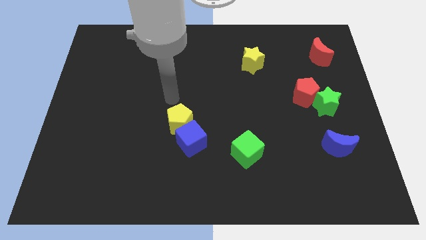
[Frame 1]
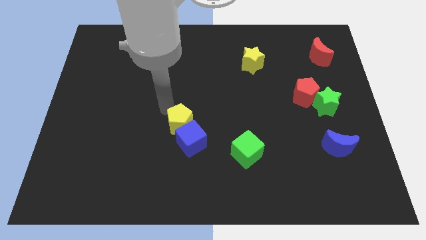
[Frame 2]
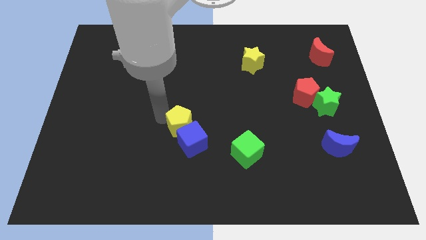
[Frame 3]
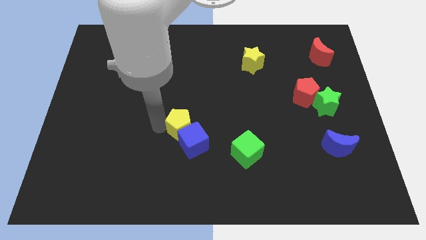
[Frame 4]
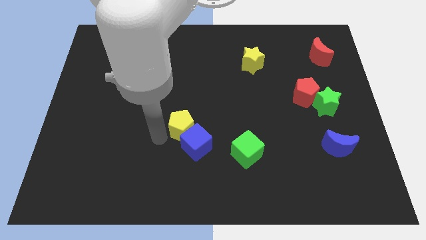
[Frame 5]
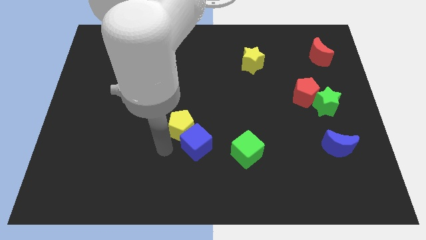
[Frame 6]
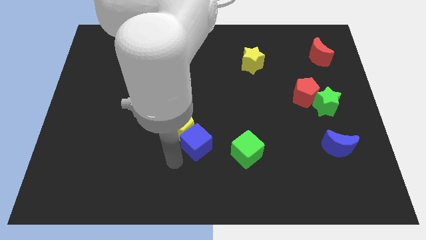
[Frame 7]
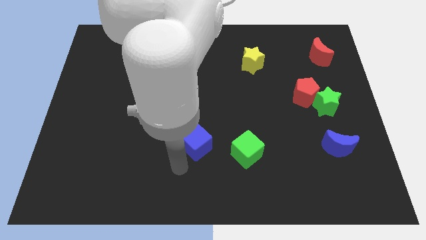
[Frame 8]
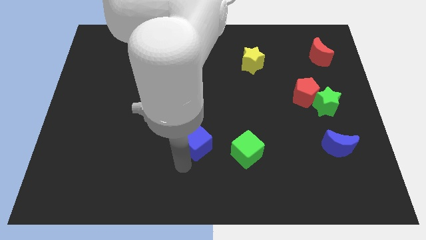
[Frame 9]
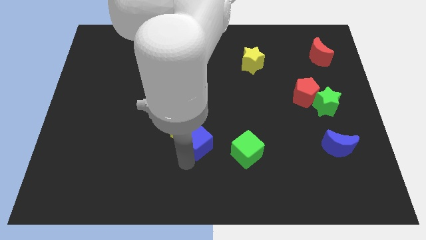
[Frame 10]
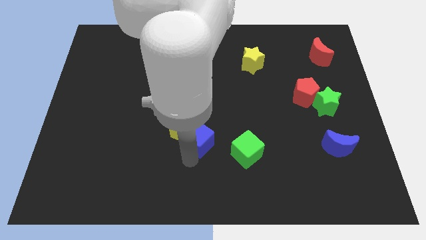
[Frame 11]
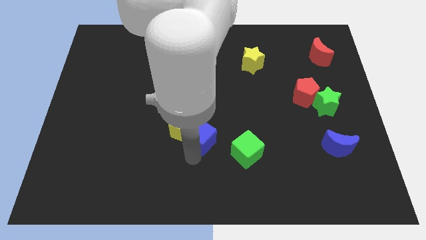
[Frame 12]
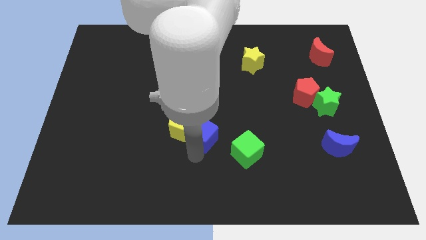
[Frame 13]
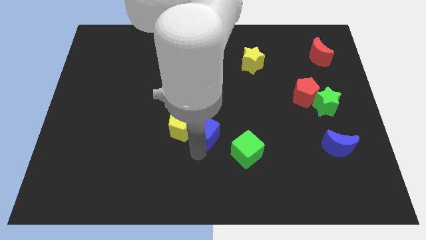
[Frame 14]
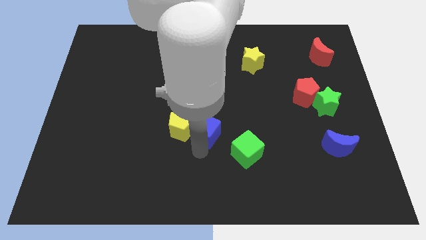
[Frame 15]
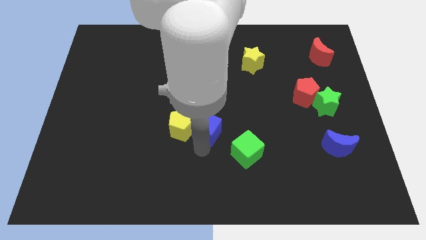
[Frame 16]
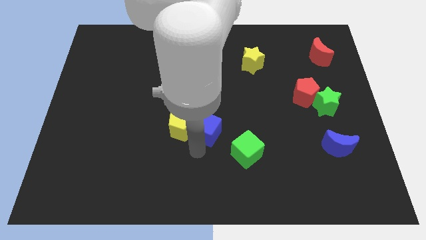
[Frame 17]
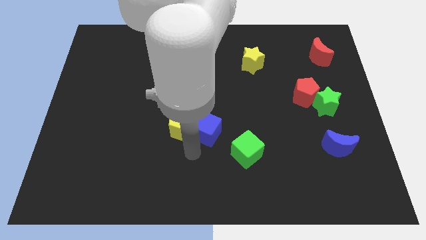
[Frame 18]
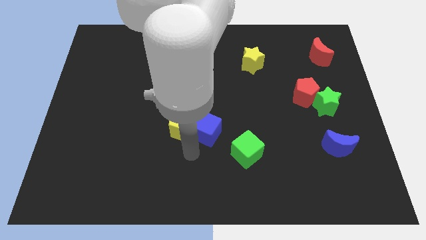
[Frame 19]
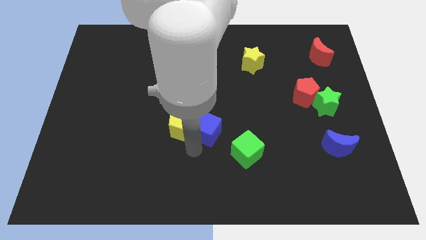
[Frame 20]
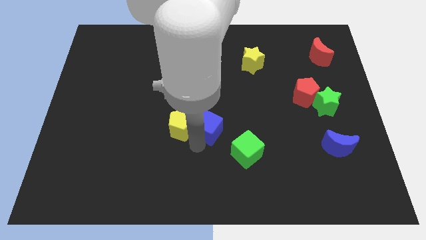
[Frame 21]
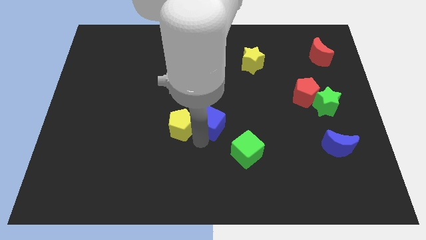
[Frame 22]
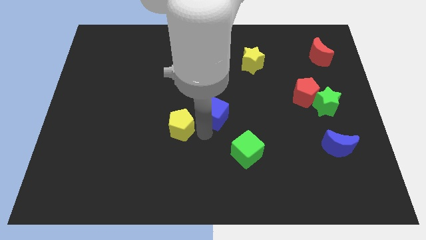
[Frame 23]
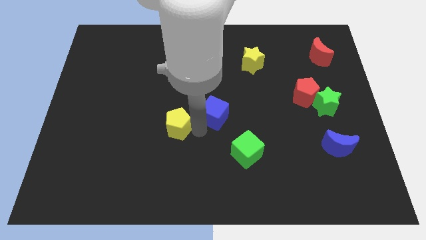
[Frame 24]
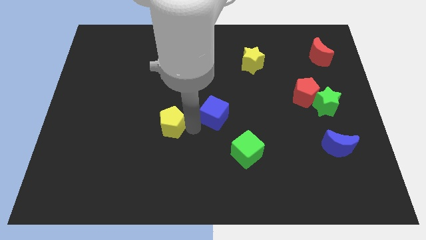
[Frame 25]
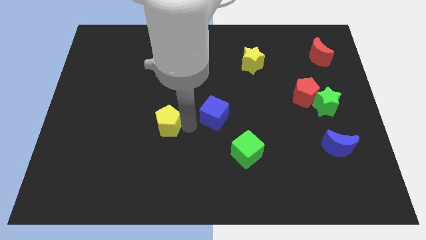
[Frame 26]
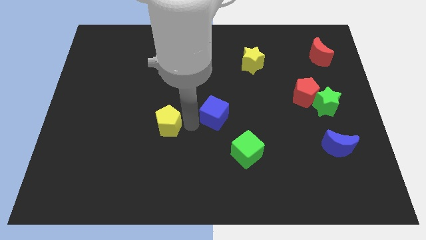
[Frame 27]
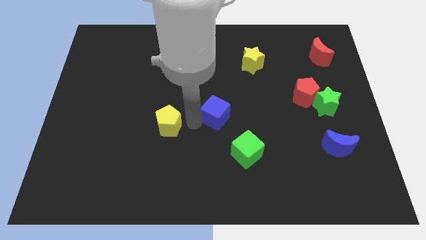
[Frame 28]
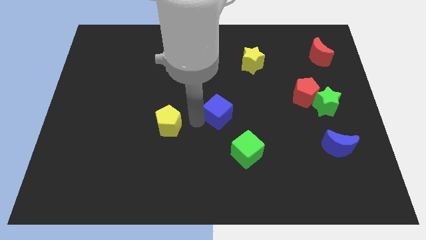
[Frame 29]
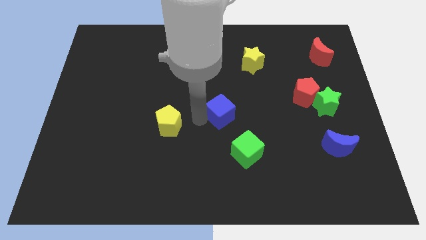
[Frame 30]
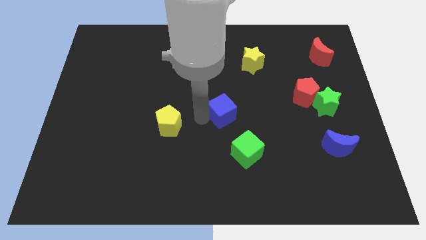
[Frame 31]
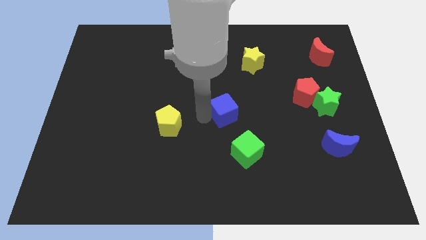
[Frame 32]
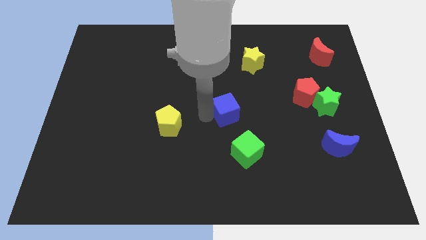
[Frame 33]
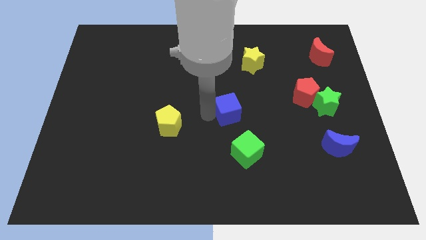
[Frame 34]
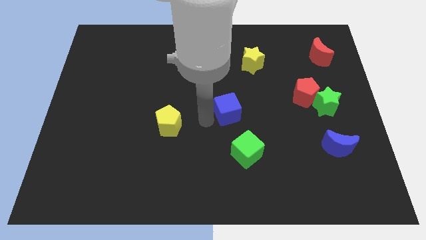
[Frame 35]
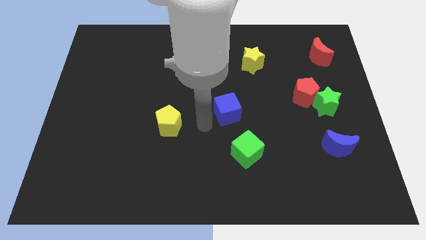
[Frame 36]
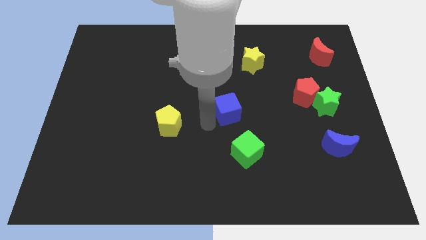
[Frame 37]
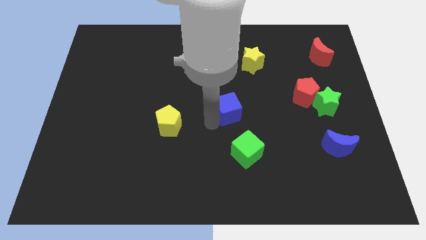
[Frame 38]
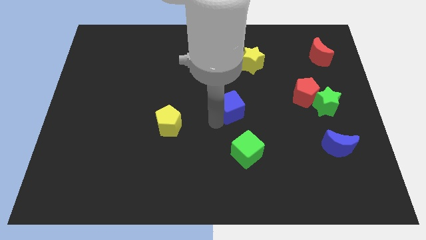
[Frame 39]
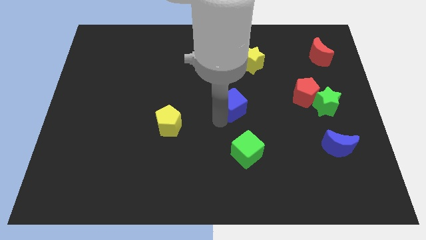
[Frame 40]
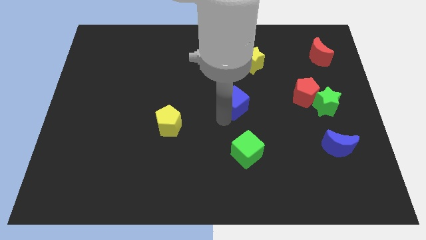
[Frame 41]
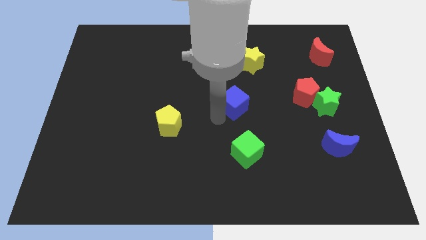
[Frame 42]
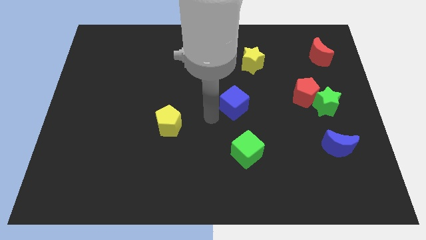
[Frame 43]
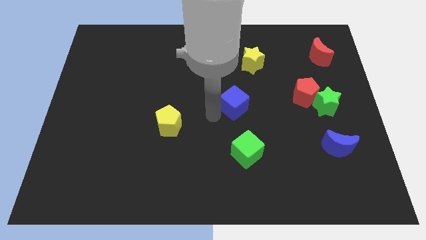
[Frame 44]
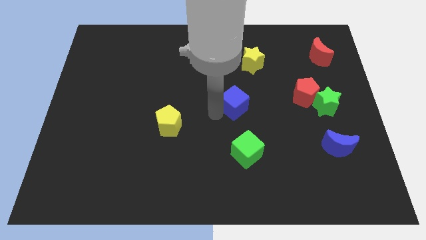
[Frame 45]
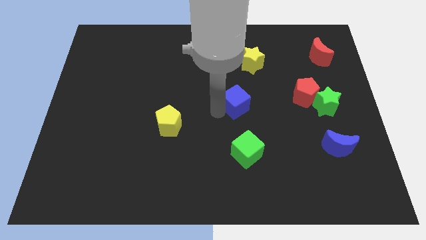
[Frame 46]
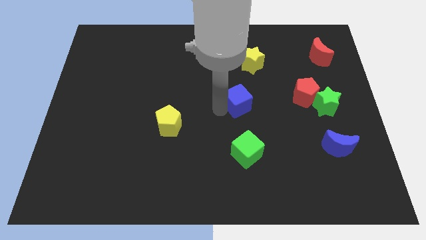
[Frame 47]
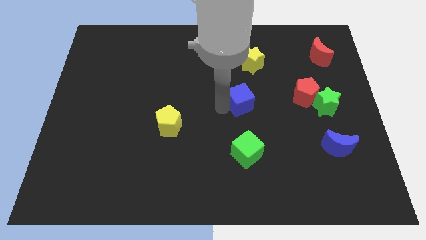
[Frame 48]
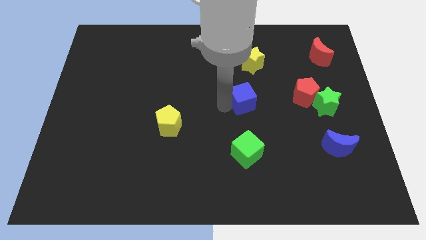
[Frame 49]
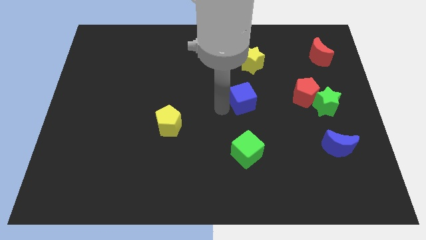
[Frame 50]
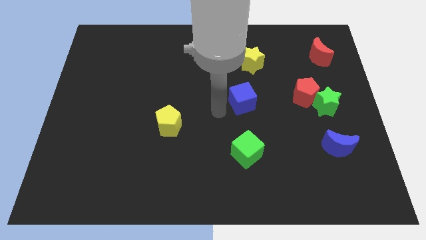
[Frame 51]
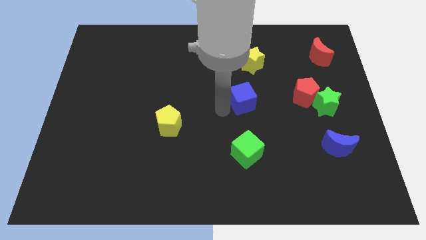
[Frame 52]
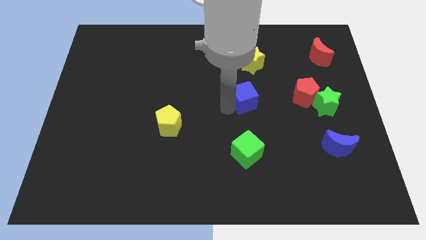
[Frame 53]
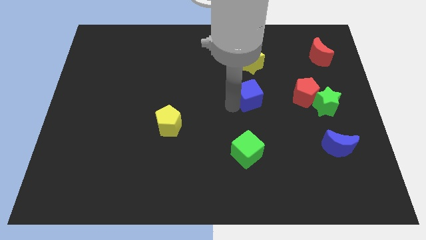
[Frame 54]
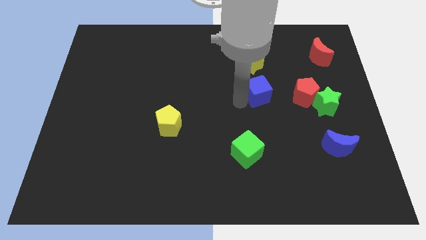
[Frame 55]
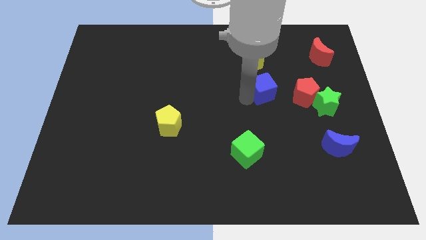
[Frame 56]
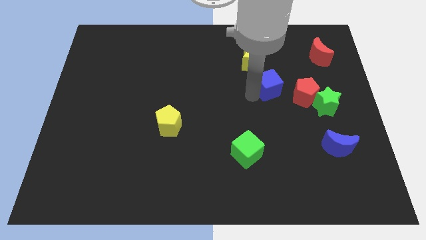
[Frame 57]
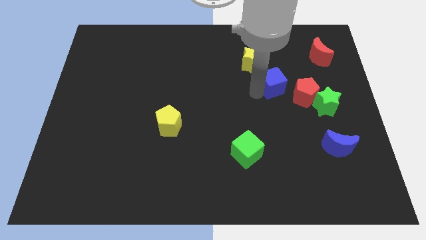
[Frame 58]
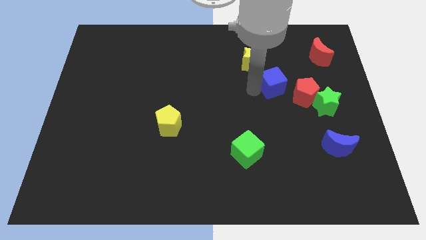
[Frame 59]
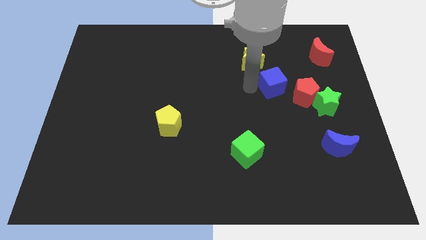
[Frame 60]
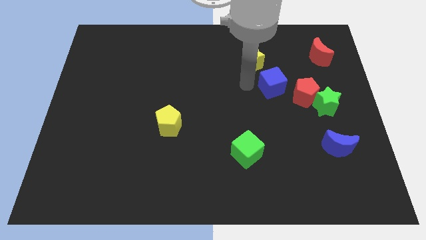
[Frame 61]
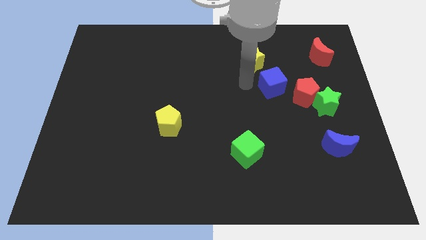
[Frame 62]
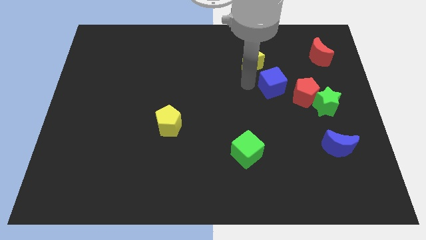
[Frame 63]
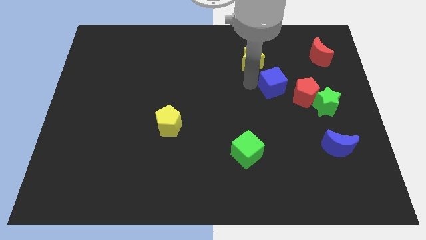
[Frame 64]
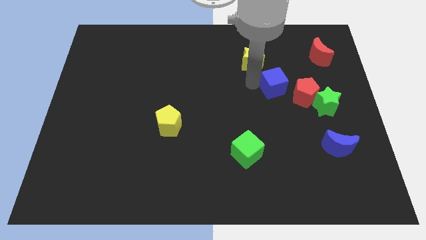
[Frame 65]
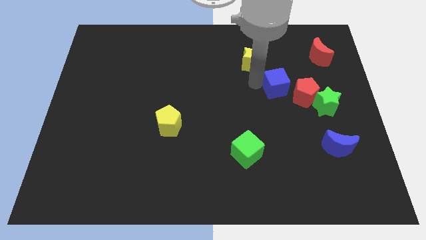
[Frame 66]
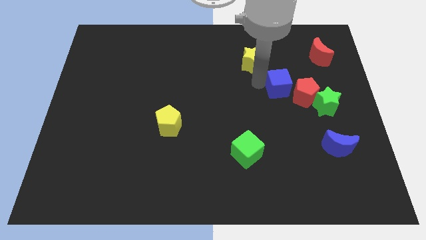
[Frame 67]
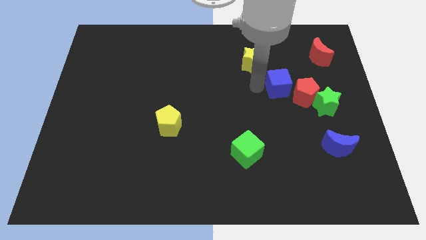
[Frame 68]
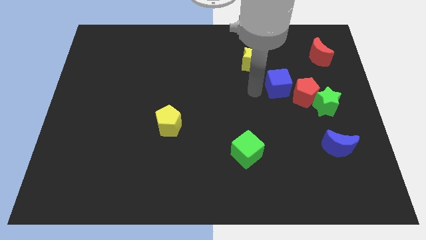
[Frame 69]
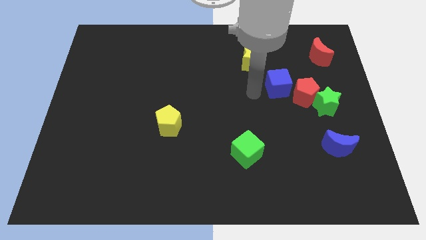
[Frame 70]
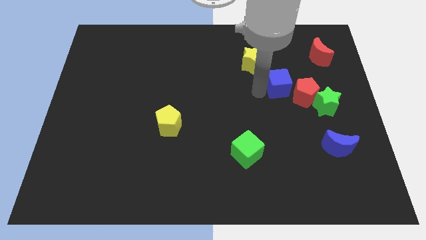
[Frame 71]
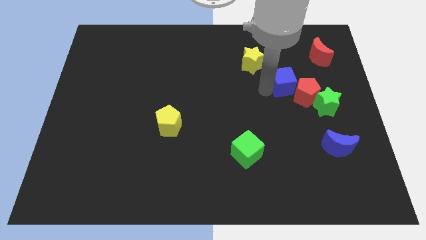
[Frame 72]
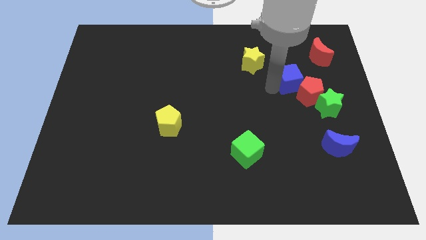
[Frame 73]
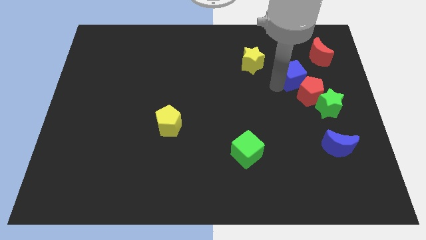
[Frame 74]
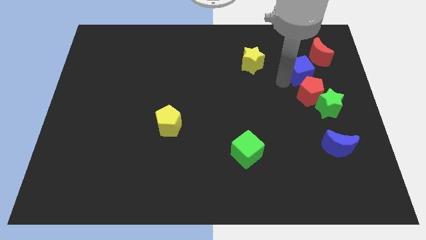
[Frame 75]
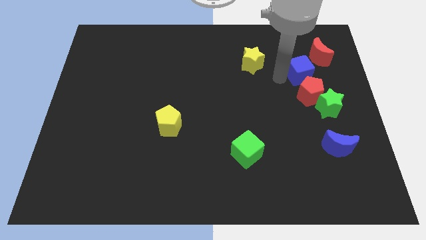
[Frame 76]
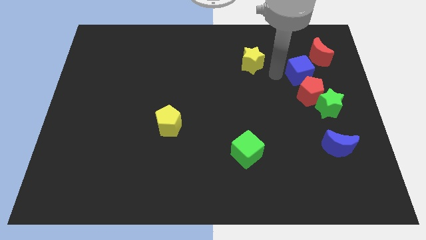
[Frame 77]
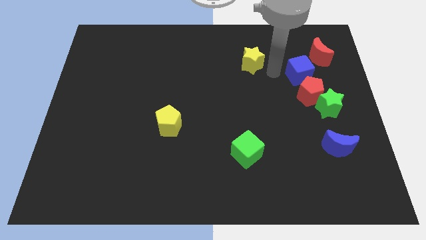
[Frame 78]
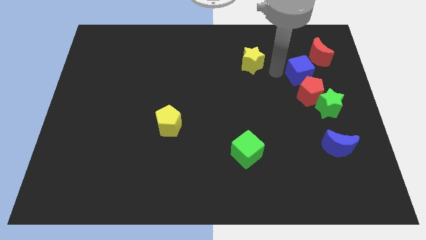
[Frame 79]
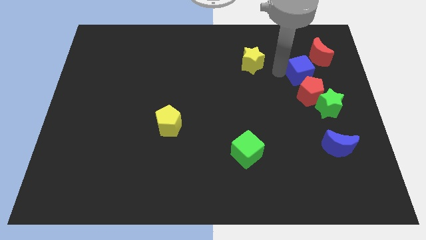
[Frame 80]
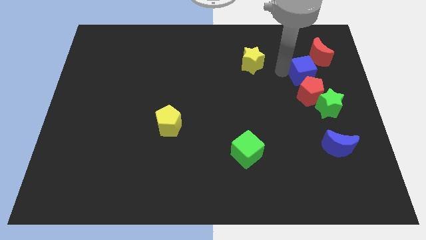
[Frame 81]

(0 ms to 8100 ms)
put the blue cube above the green star

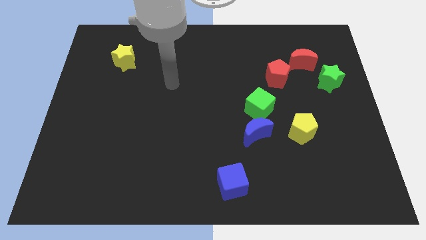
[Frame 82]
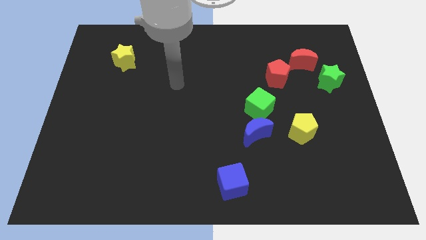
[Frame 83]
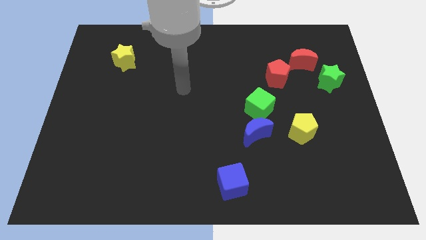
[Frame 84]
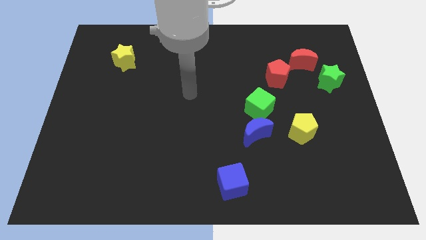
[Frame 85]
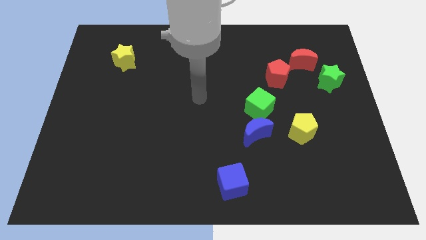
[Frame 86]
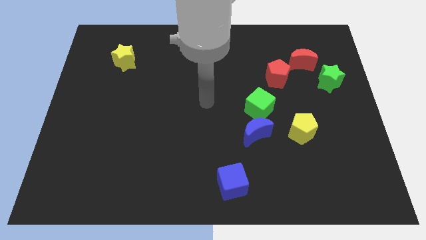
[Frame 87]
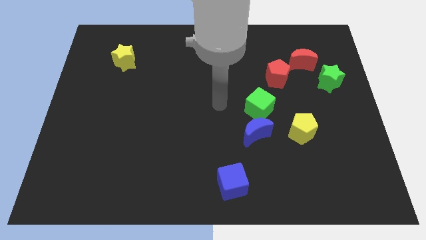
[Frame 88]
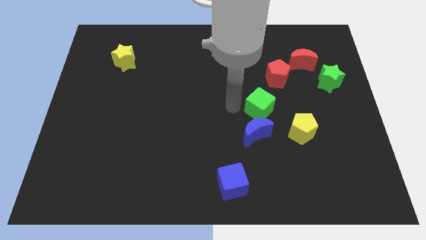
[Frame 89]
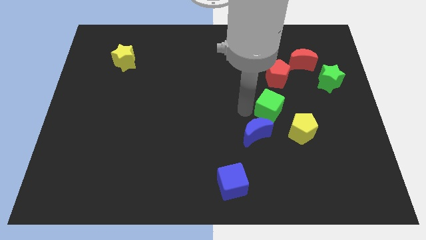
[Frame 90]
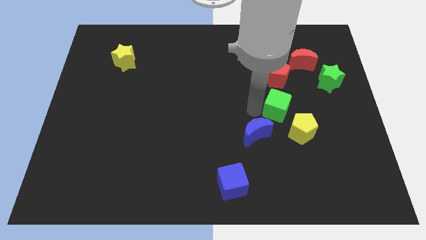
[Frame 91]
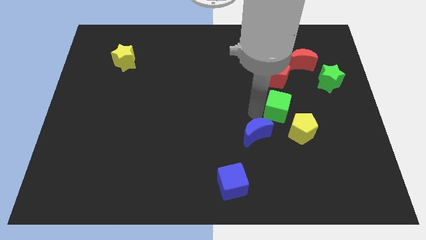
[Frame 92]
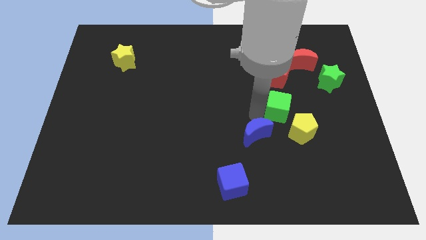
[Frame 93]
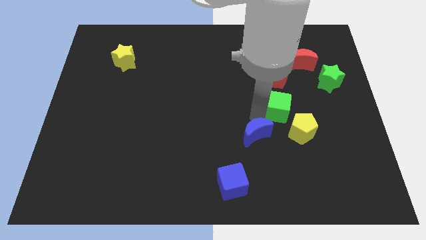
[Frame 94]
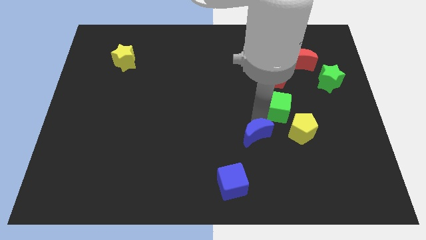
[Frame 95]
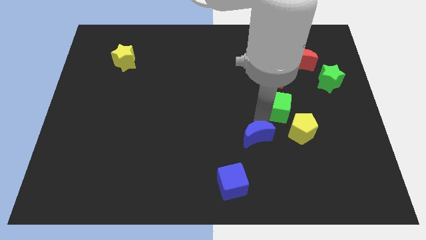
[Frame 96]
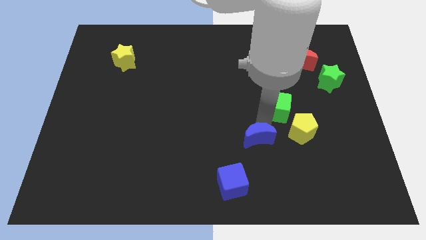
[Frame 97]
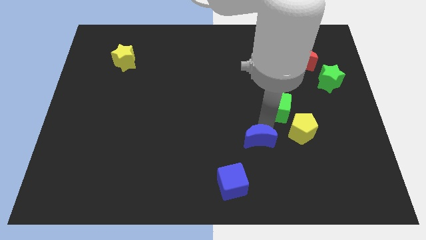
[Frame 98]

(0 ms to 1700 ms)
move the blue moon diagonally up and to the right of the blue cube
